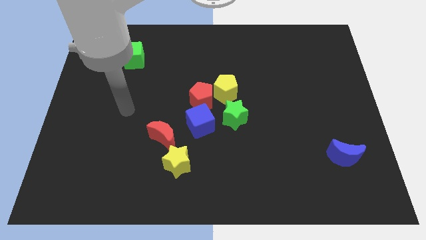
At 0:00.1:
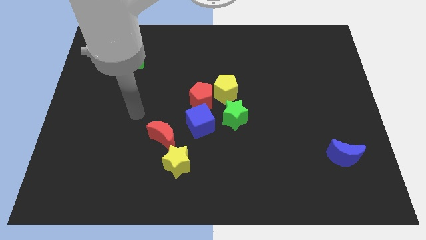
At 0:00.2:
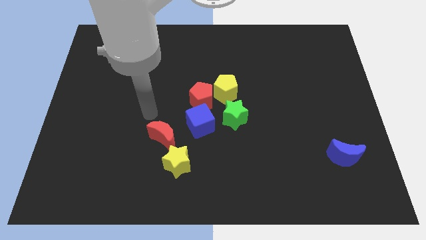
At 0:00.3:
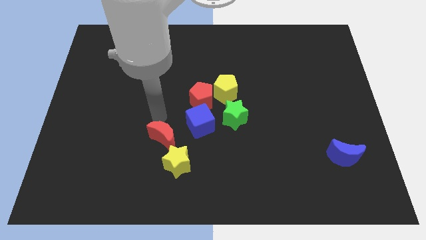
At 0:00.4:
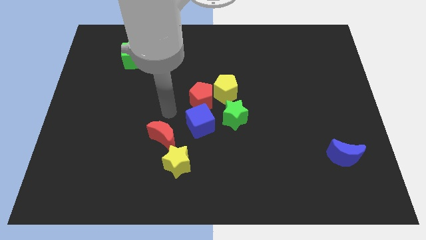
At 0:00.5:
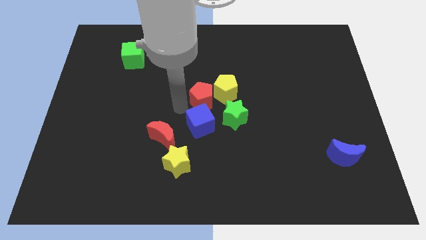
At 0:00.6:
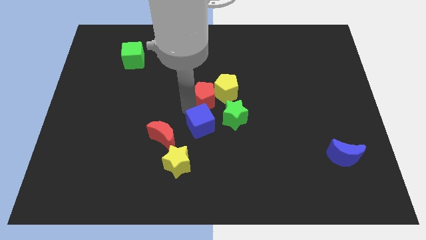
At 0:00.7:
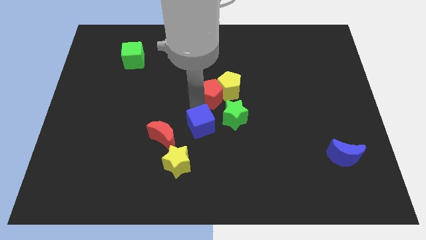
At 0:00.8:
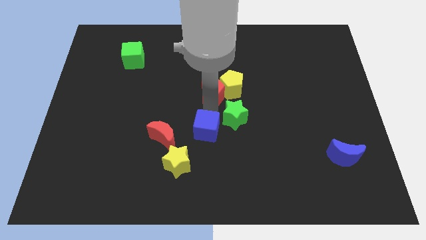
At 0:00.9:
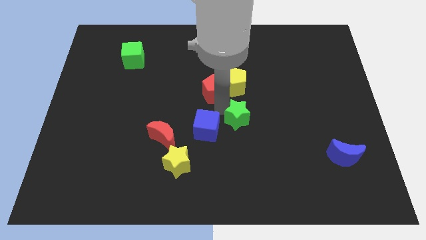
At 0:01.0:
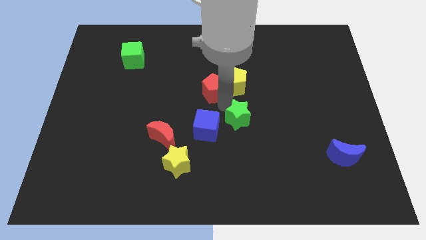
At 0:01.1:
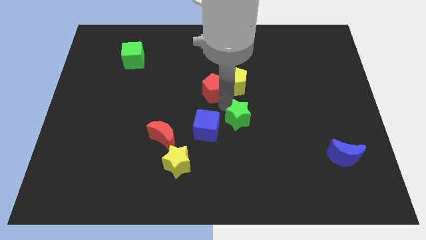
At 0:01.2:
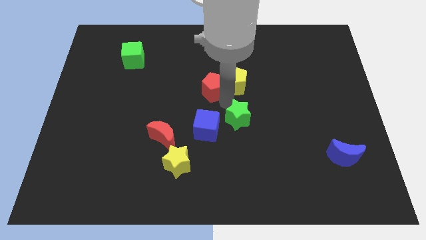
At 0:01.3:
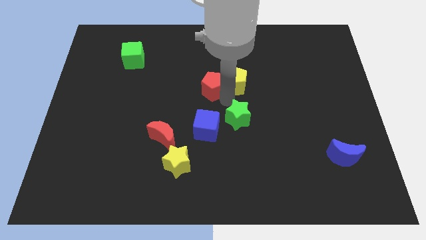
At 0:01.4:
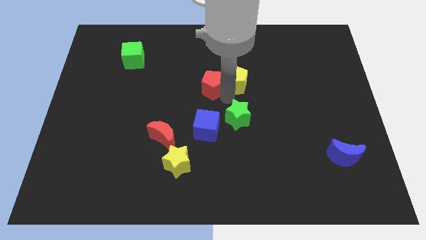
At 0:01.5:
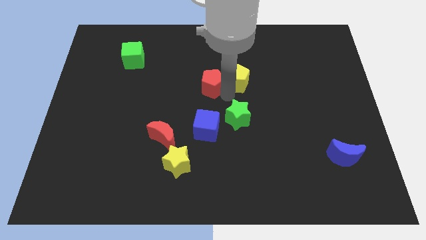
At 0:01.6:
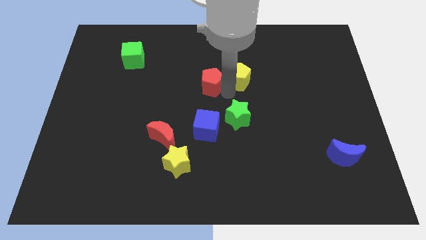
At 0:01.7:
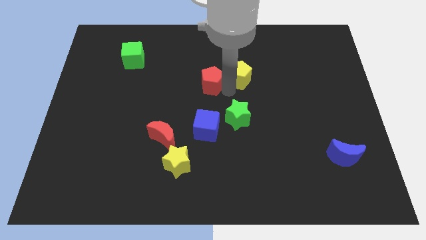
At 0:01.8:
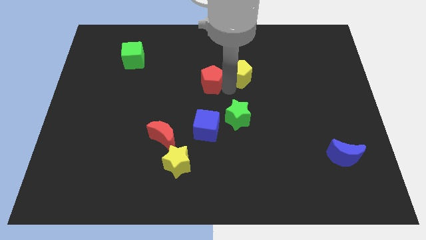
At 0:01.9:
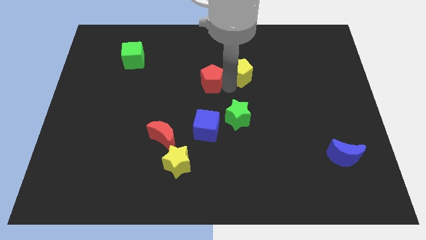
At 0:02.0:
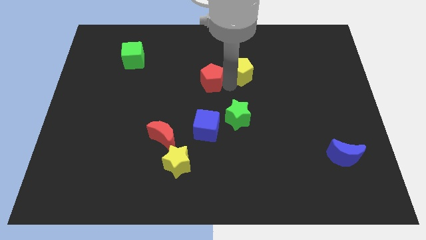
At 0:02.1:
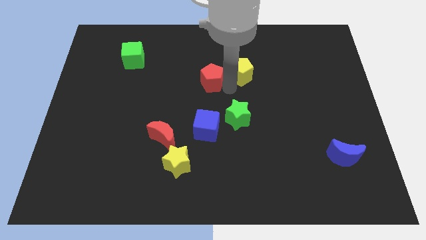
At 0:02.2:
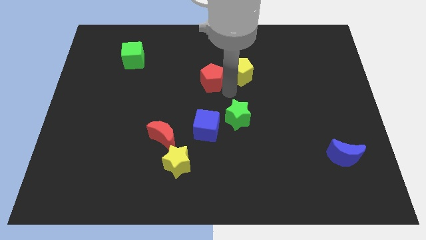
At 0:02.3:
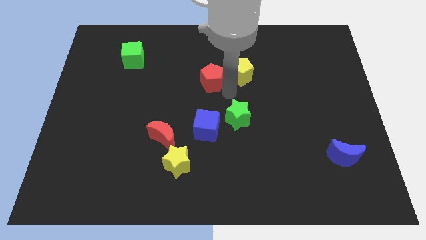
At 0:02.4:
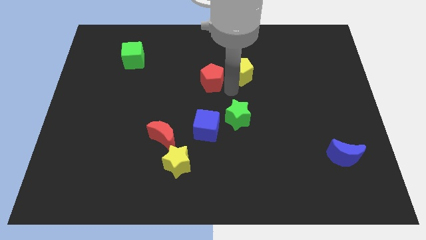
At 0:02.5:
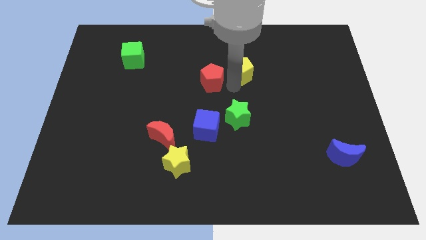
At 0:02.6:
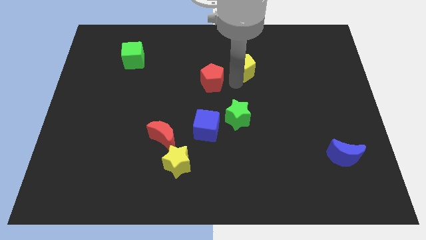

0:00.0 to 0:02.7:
move the yellow pentagon away from the red pentagon and green star

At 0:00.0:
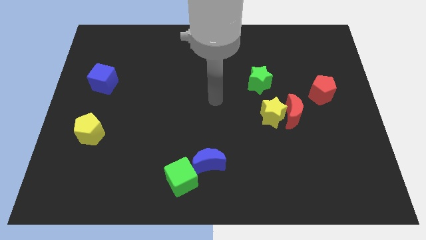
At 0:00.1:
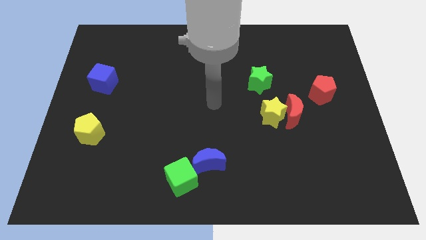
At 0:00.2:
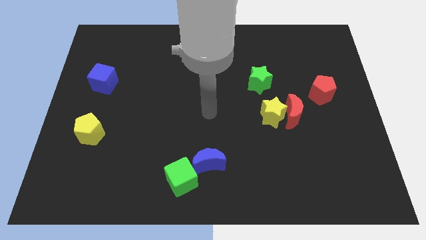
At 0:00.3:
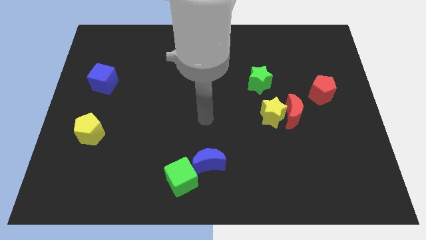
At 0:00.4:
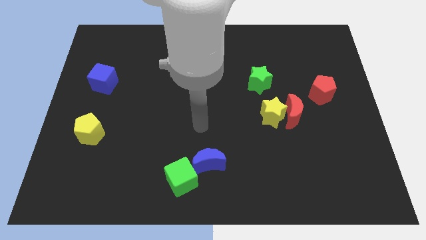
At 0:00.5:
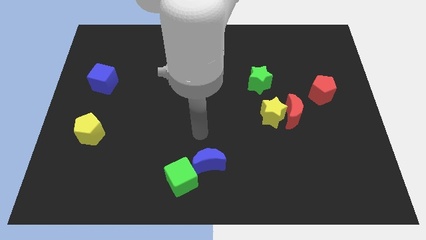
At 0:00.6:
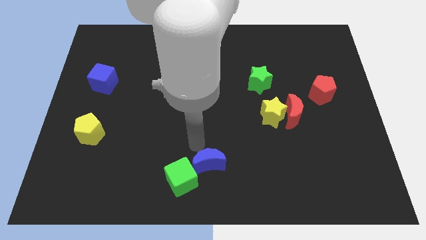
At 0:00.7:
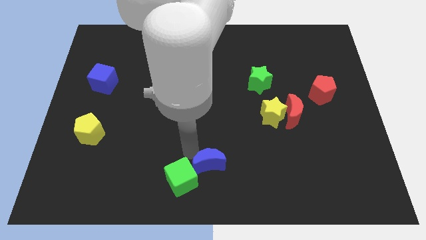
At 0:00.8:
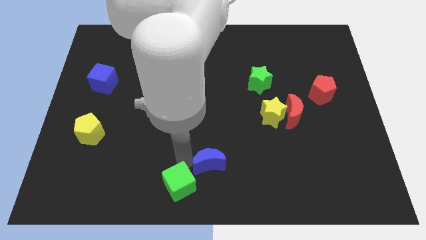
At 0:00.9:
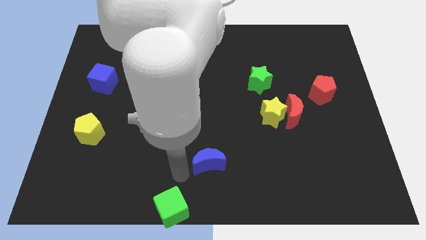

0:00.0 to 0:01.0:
separate the blue moon from the green cube

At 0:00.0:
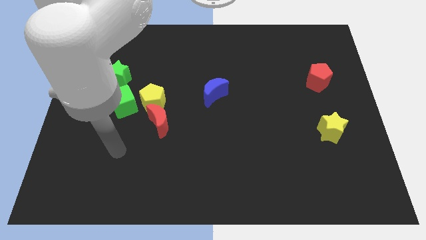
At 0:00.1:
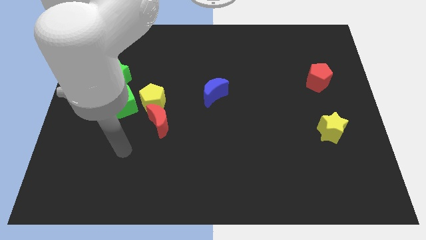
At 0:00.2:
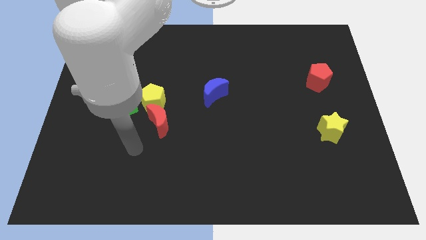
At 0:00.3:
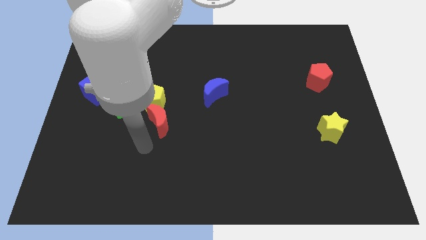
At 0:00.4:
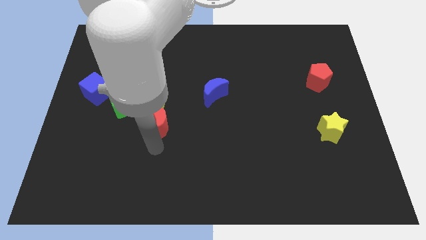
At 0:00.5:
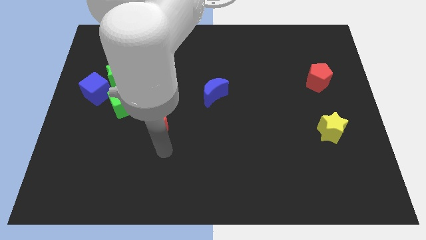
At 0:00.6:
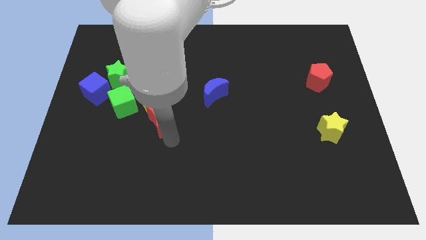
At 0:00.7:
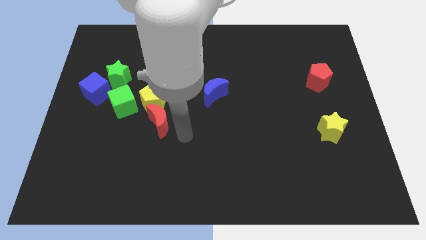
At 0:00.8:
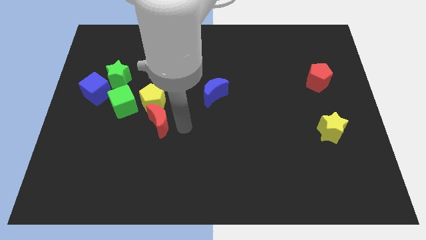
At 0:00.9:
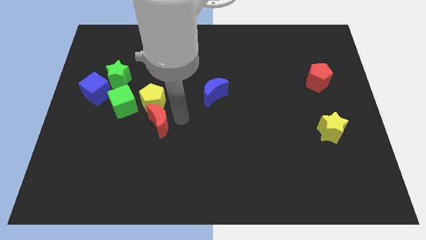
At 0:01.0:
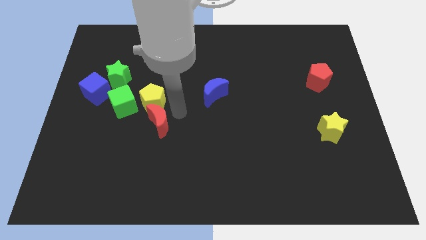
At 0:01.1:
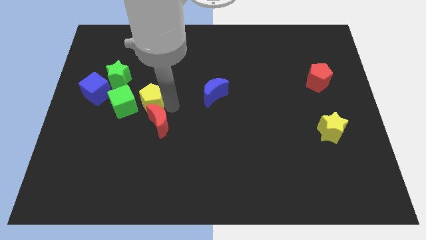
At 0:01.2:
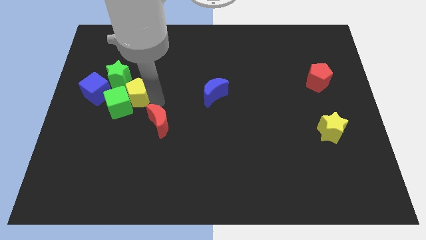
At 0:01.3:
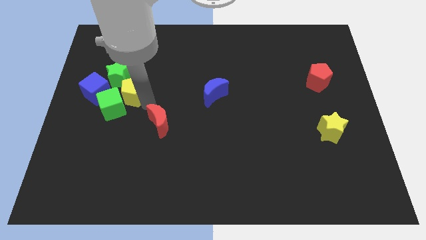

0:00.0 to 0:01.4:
move the red moon away from the yellow pentagon

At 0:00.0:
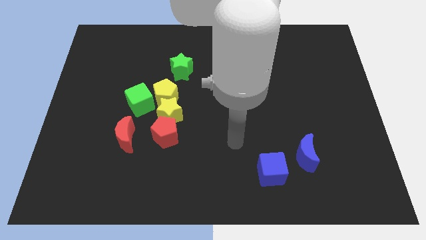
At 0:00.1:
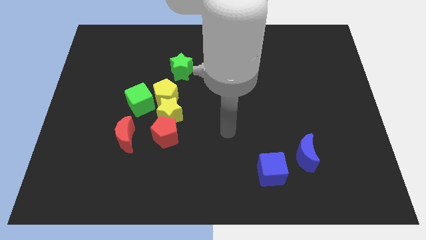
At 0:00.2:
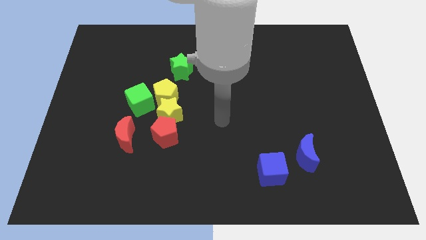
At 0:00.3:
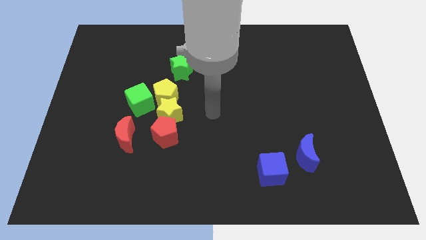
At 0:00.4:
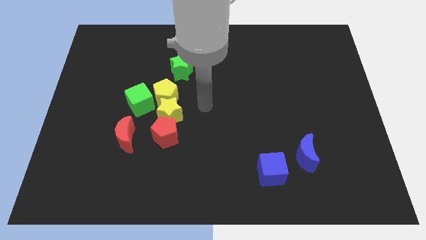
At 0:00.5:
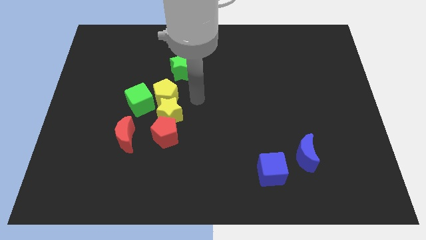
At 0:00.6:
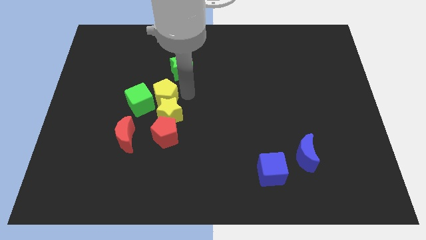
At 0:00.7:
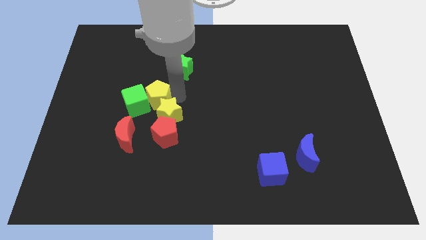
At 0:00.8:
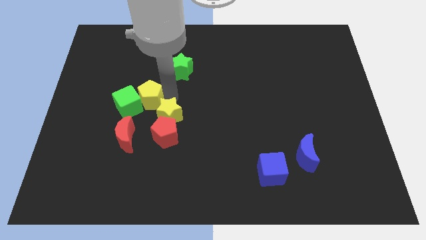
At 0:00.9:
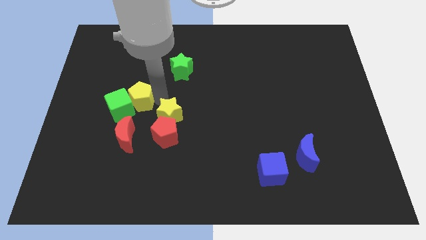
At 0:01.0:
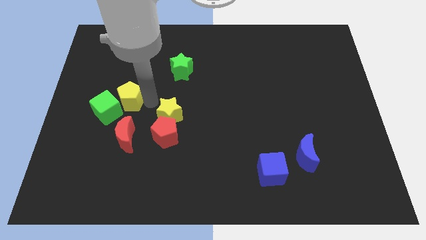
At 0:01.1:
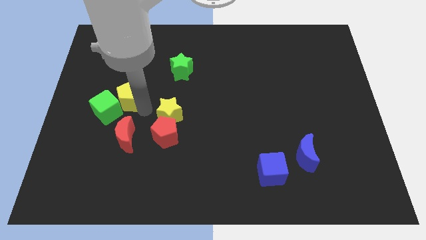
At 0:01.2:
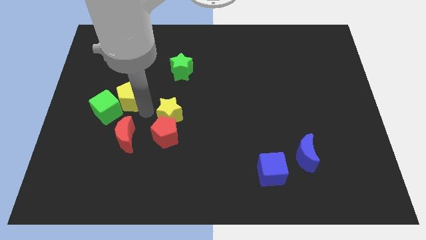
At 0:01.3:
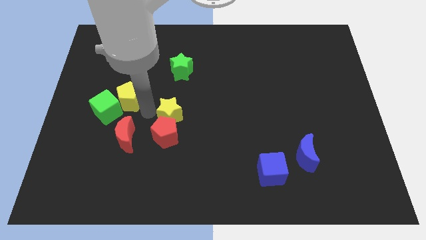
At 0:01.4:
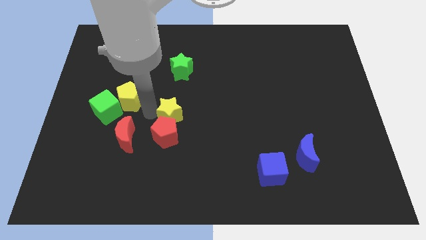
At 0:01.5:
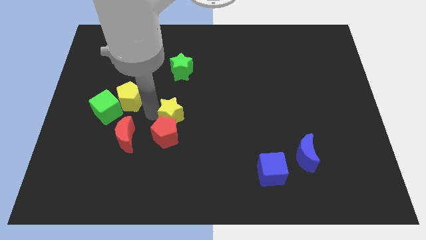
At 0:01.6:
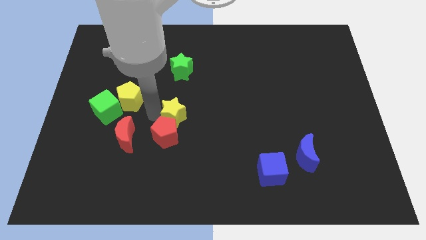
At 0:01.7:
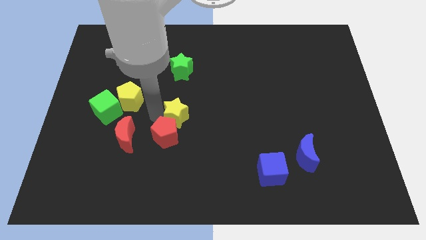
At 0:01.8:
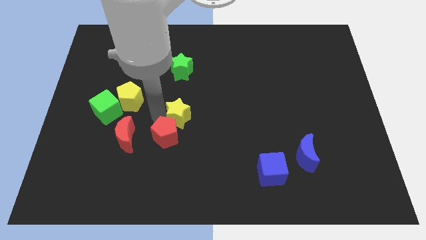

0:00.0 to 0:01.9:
move the yellow star away from the yellow pentagon, red pentagon, and green cube

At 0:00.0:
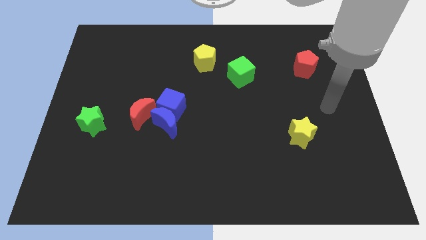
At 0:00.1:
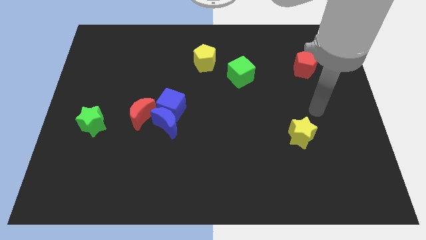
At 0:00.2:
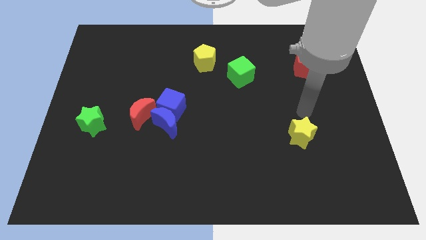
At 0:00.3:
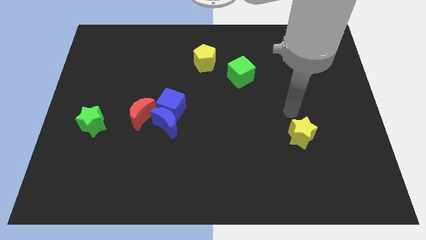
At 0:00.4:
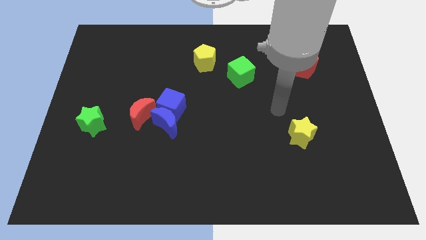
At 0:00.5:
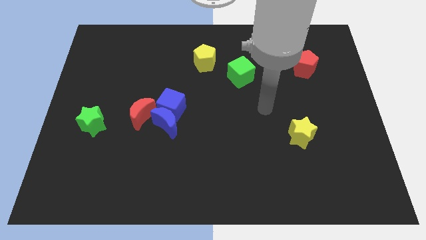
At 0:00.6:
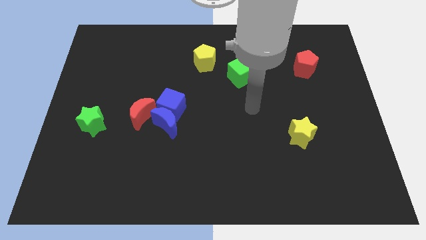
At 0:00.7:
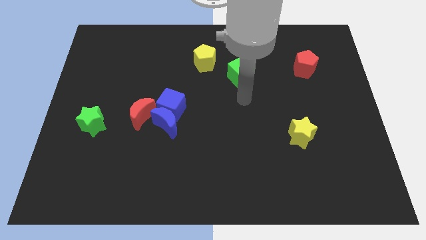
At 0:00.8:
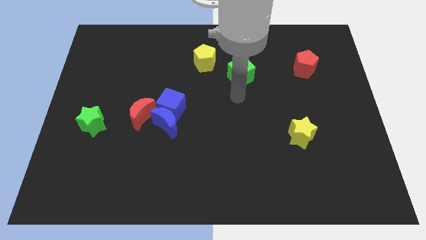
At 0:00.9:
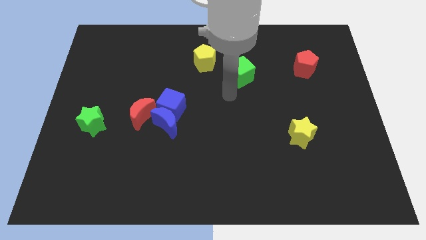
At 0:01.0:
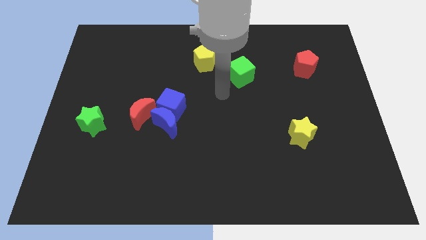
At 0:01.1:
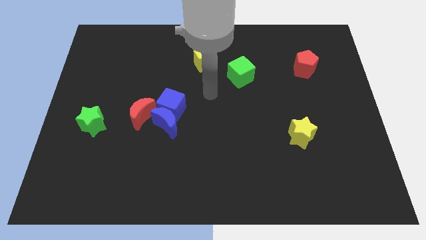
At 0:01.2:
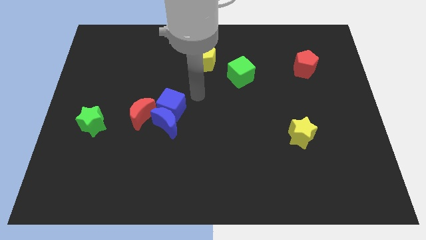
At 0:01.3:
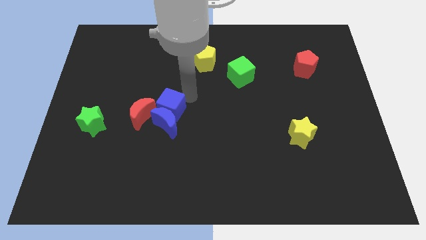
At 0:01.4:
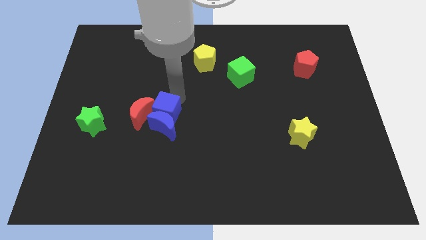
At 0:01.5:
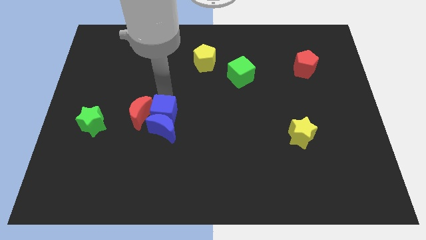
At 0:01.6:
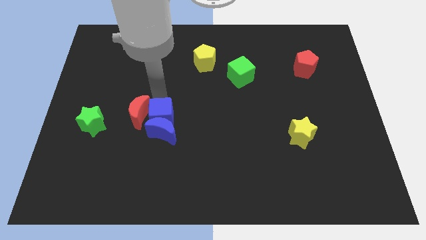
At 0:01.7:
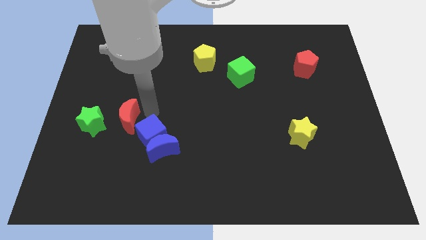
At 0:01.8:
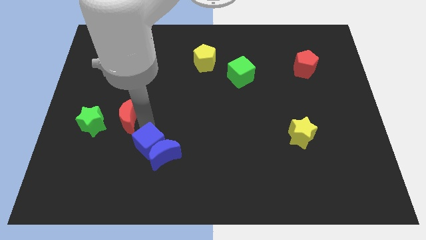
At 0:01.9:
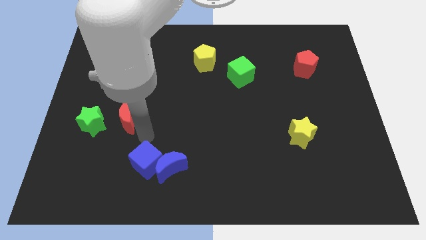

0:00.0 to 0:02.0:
pull the blue moon apart from the blue cube and red moon

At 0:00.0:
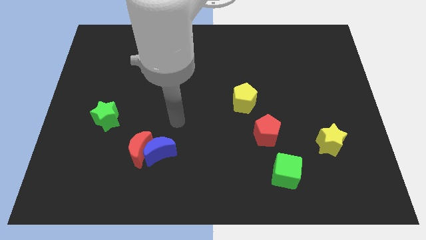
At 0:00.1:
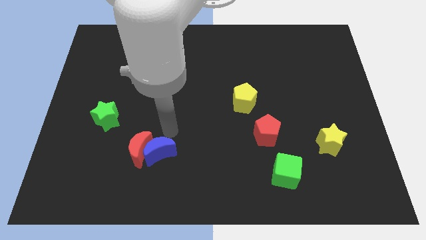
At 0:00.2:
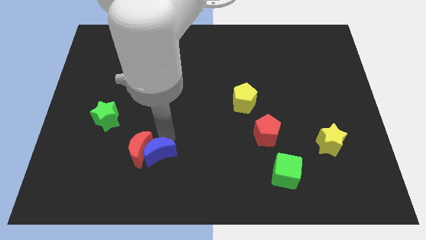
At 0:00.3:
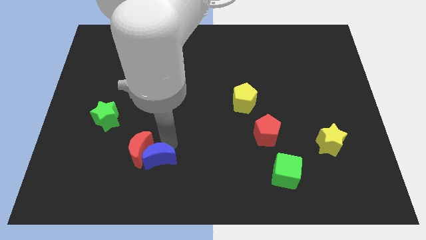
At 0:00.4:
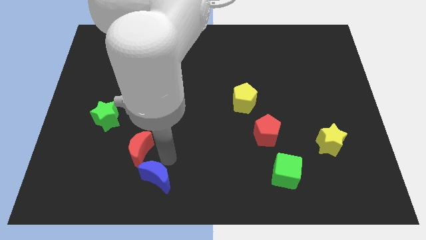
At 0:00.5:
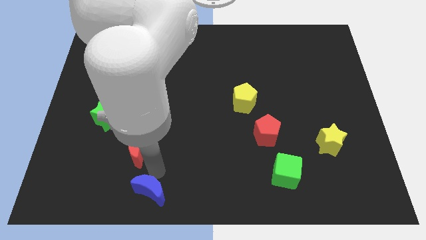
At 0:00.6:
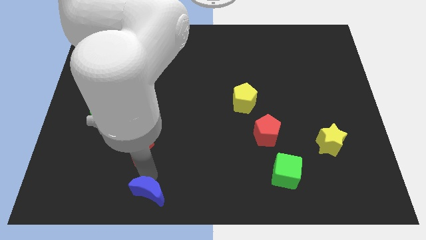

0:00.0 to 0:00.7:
pull the red moon apart from the blue moon
